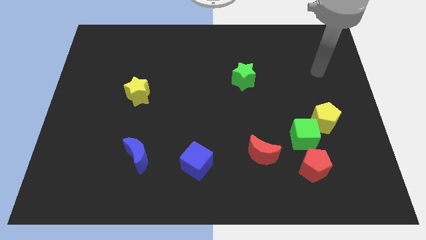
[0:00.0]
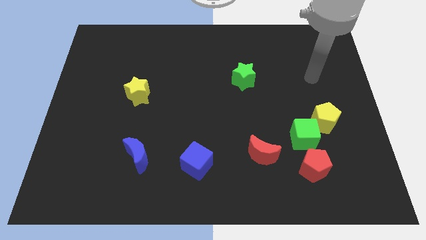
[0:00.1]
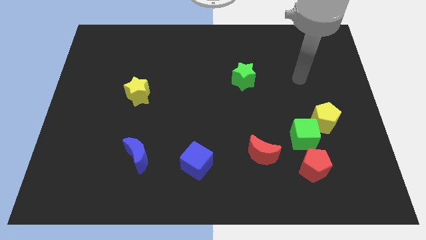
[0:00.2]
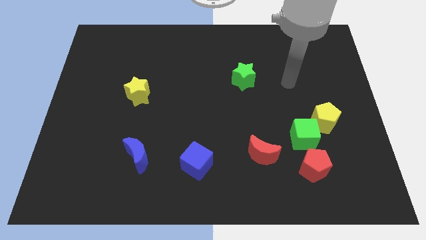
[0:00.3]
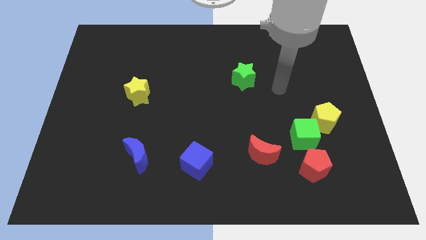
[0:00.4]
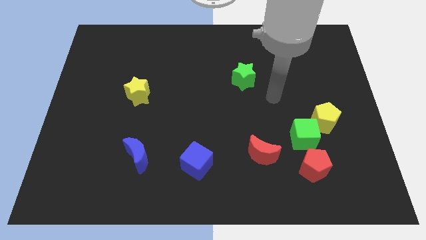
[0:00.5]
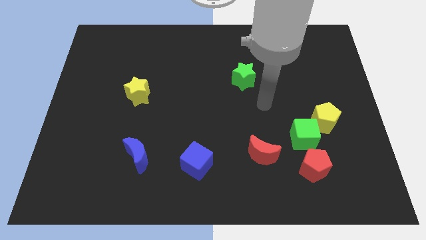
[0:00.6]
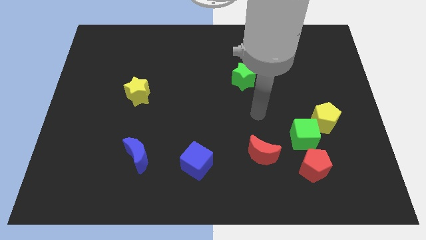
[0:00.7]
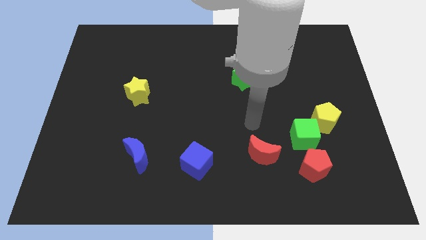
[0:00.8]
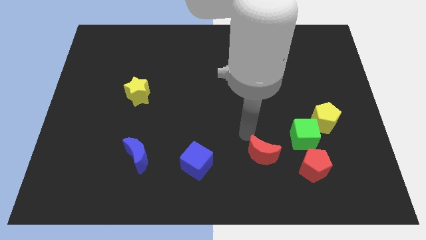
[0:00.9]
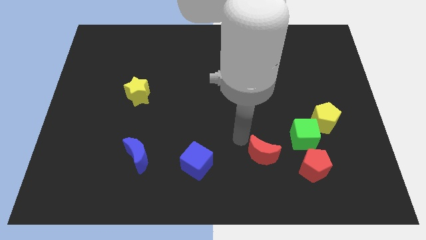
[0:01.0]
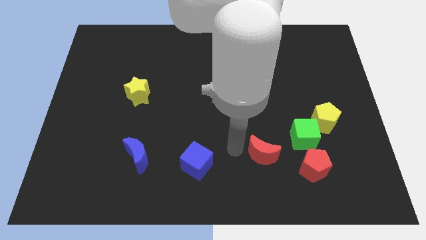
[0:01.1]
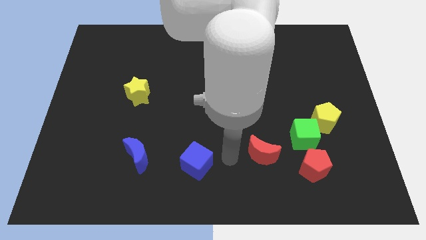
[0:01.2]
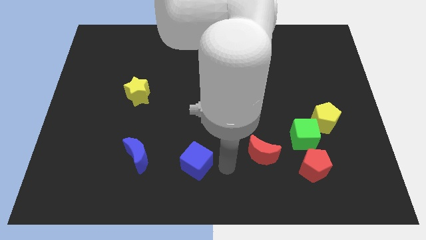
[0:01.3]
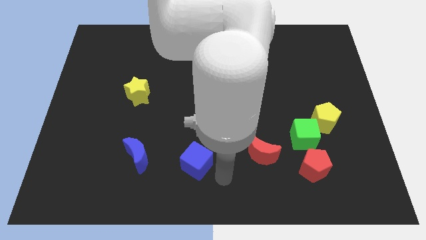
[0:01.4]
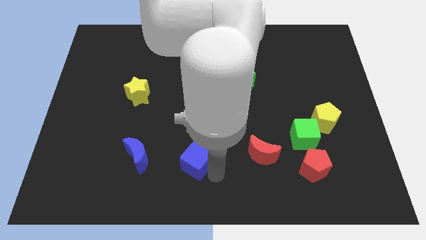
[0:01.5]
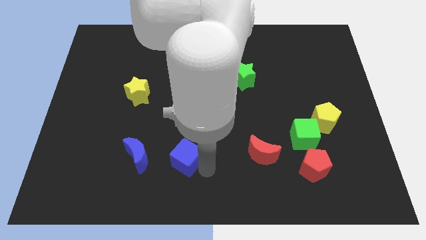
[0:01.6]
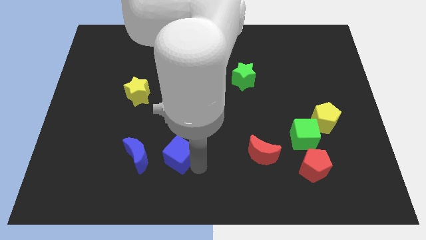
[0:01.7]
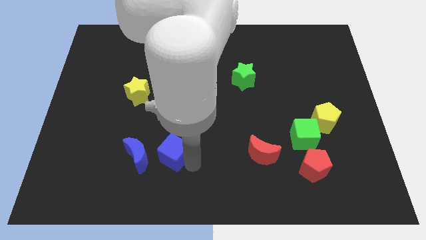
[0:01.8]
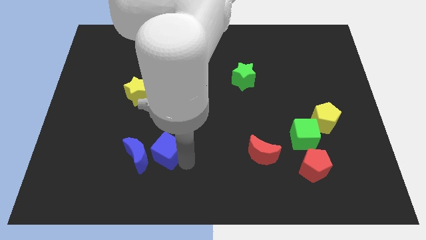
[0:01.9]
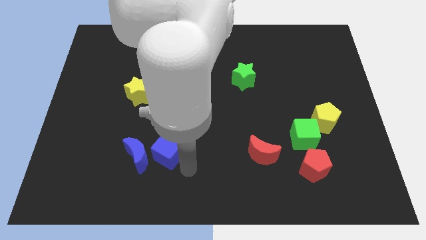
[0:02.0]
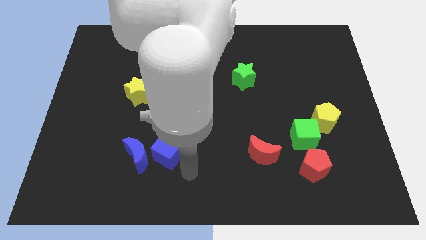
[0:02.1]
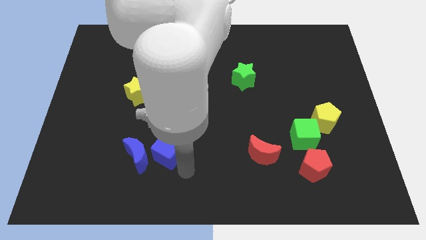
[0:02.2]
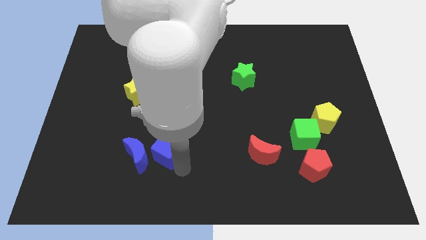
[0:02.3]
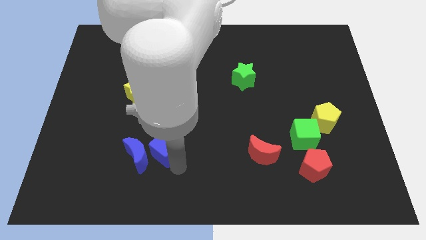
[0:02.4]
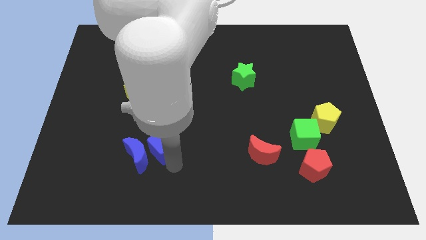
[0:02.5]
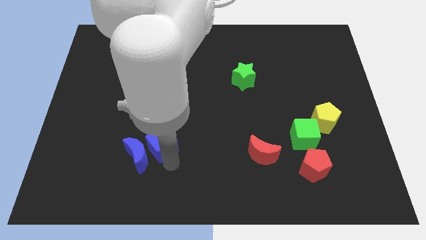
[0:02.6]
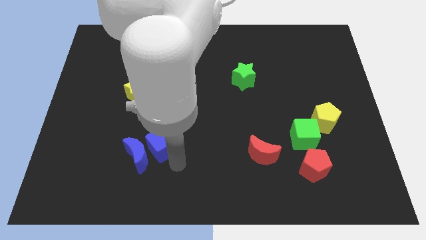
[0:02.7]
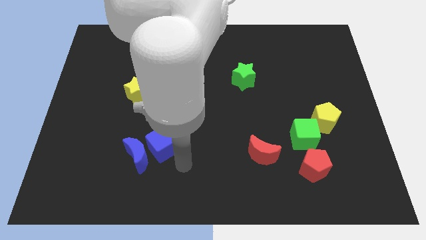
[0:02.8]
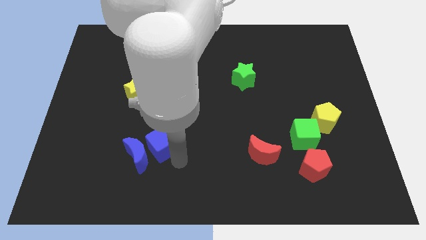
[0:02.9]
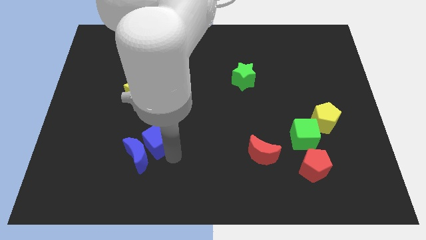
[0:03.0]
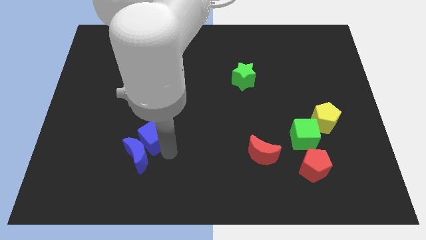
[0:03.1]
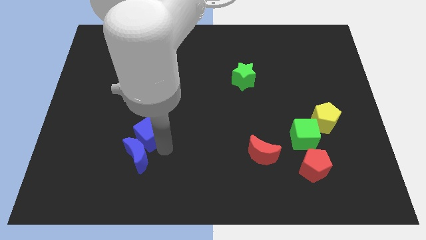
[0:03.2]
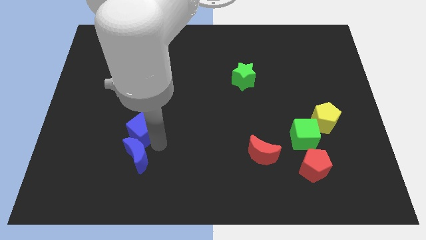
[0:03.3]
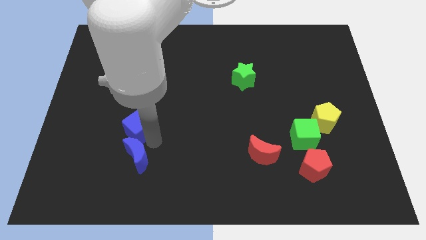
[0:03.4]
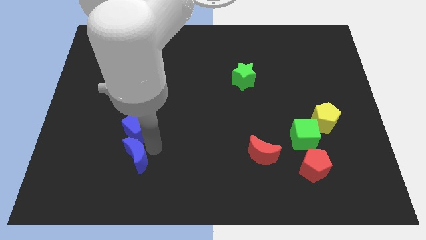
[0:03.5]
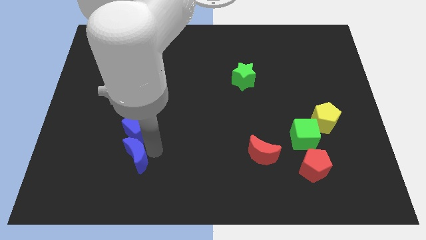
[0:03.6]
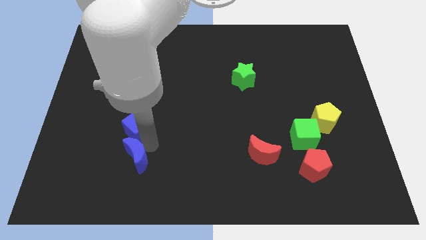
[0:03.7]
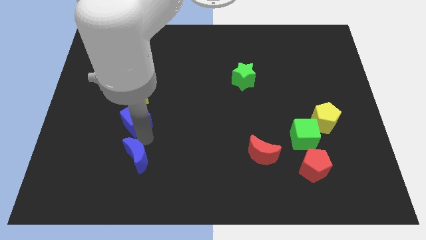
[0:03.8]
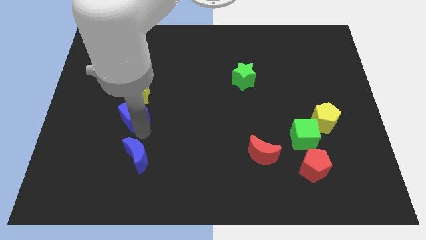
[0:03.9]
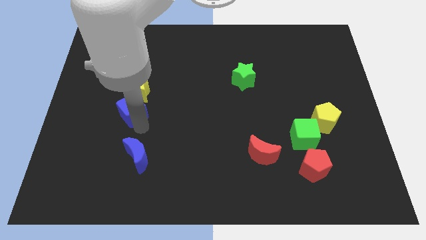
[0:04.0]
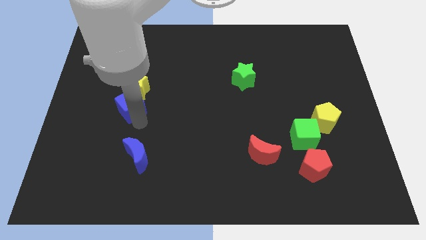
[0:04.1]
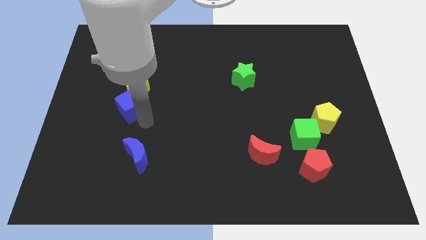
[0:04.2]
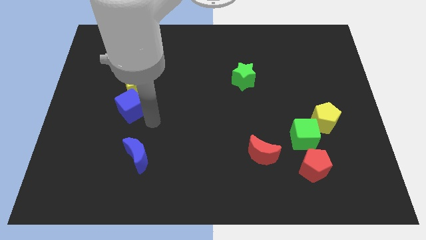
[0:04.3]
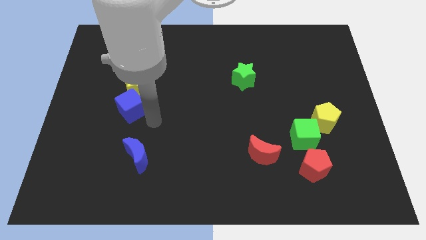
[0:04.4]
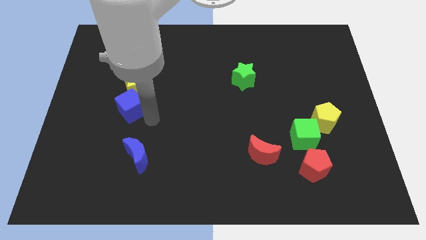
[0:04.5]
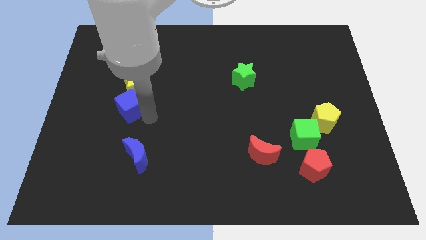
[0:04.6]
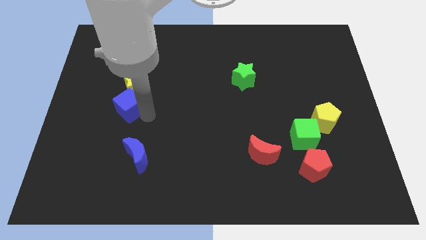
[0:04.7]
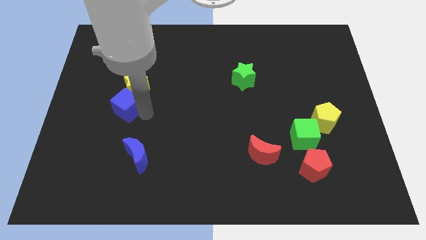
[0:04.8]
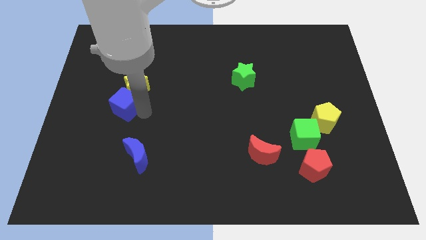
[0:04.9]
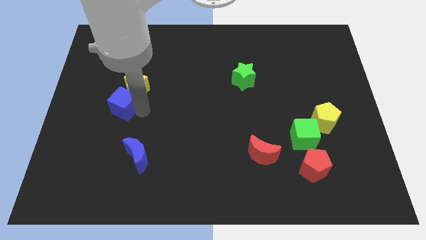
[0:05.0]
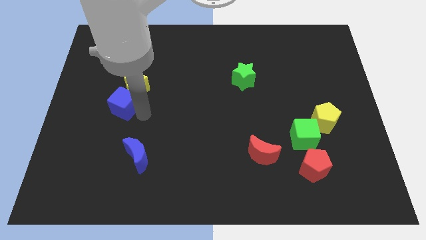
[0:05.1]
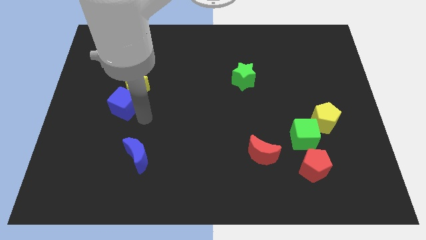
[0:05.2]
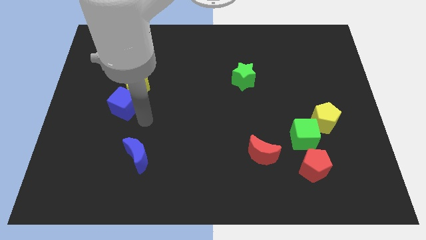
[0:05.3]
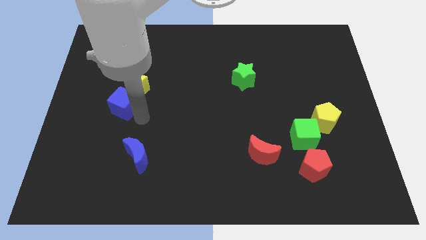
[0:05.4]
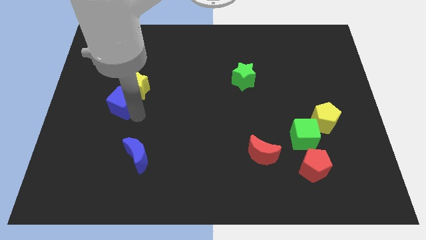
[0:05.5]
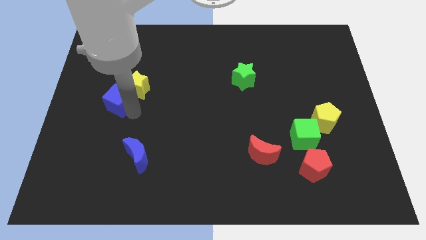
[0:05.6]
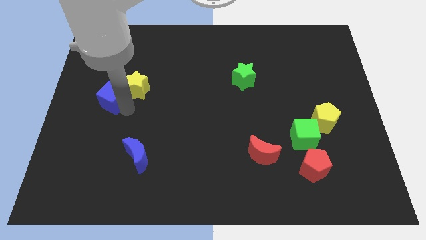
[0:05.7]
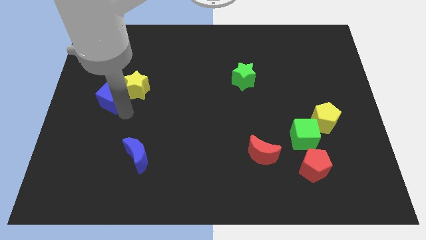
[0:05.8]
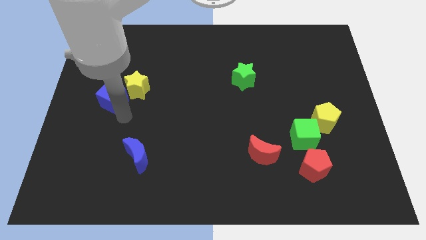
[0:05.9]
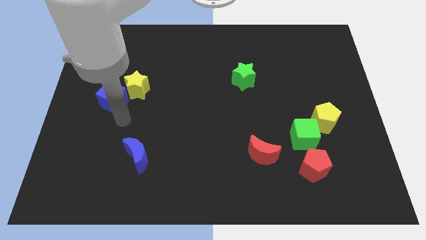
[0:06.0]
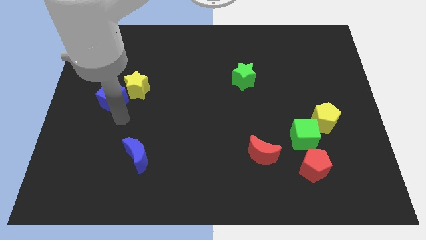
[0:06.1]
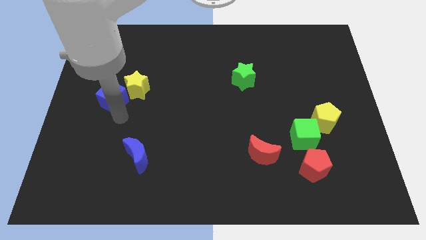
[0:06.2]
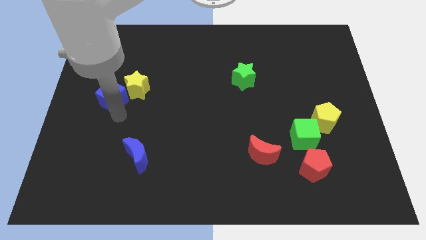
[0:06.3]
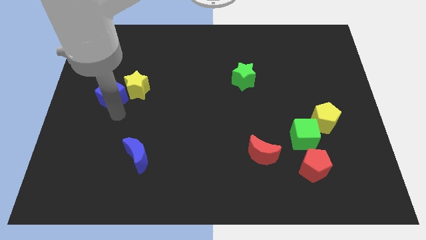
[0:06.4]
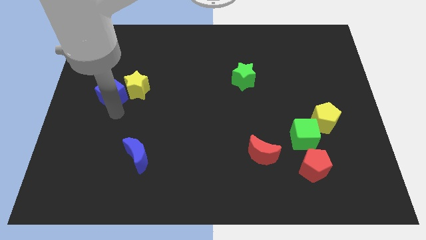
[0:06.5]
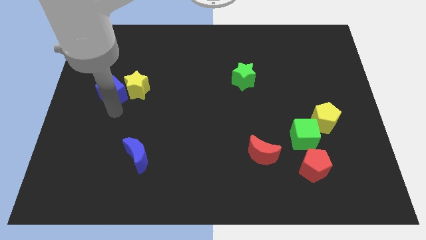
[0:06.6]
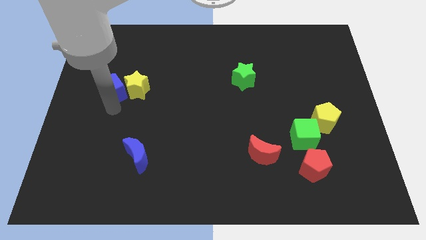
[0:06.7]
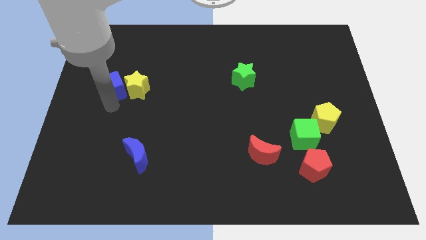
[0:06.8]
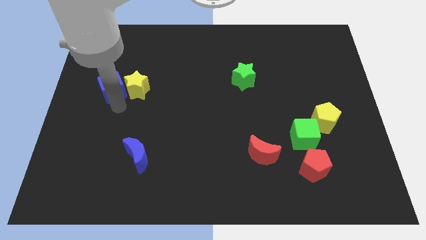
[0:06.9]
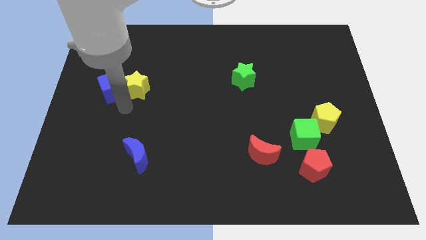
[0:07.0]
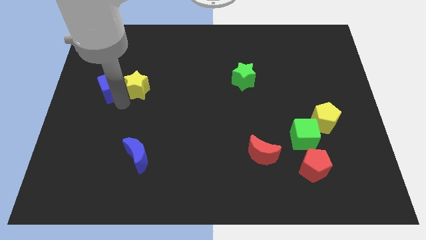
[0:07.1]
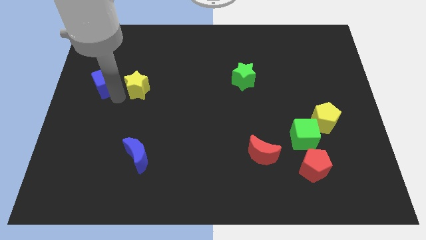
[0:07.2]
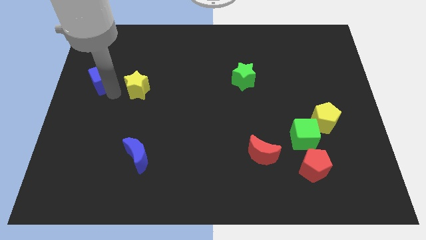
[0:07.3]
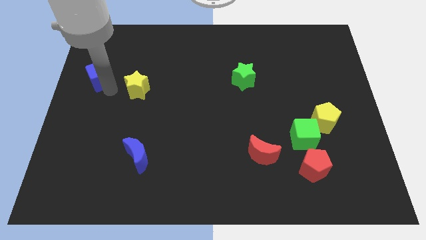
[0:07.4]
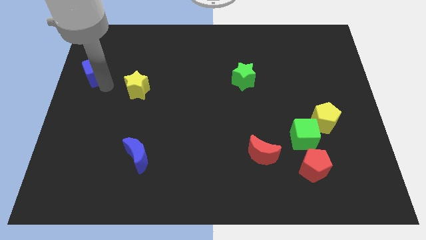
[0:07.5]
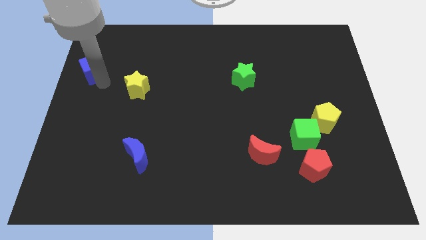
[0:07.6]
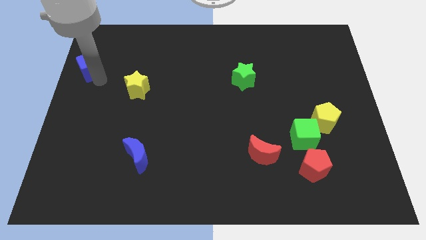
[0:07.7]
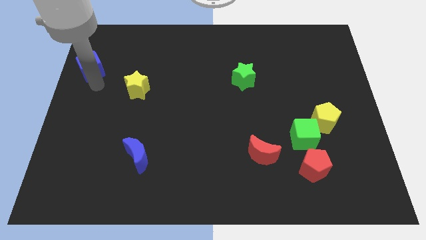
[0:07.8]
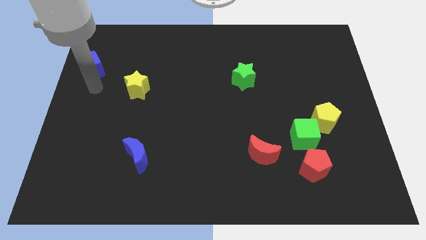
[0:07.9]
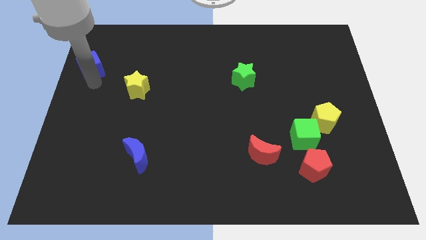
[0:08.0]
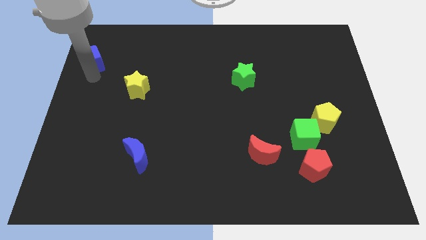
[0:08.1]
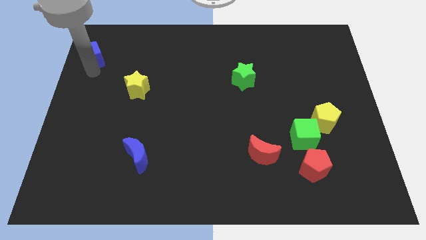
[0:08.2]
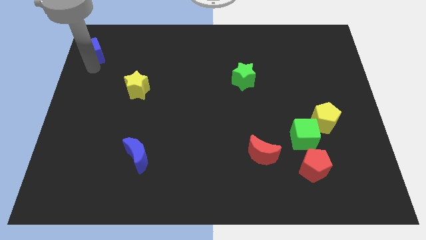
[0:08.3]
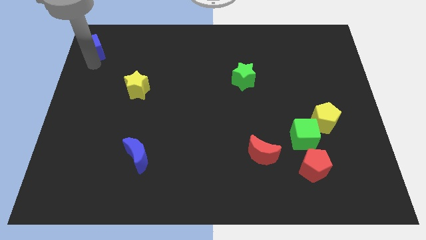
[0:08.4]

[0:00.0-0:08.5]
slide the blue cube to the top left corner
